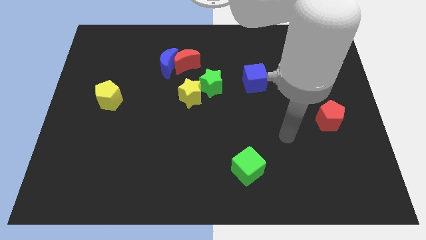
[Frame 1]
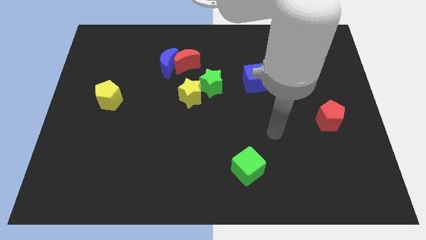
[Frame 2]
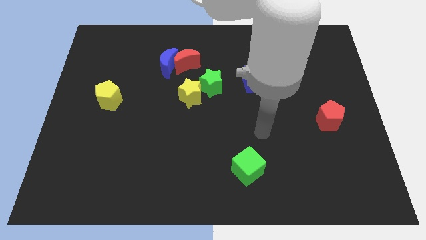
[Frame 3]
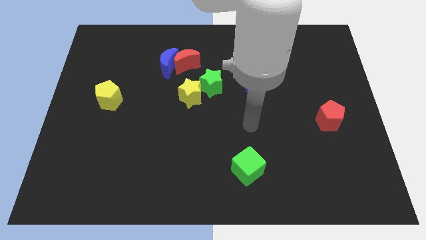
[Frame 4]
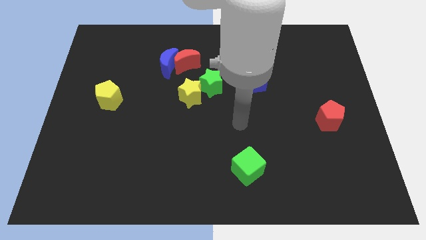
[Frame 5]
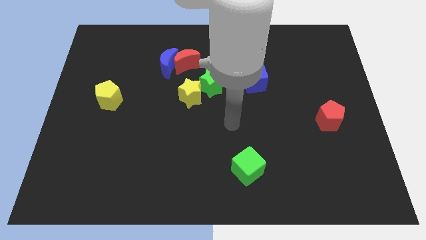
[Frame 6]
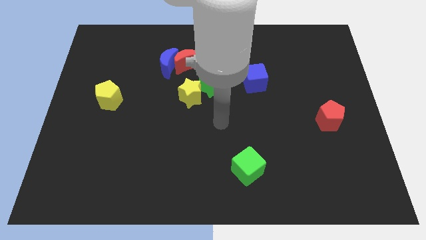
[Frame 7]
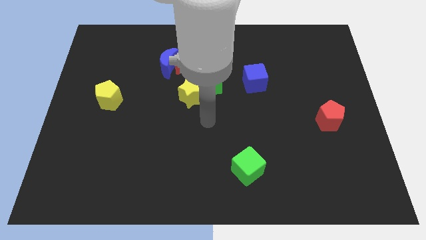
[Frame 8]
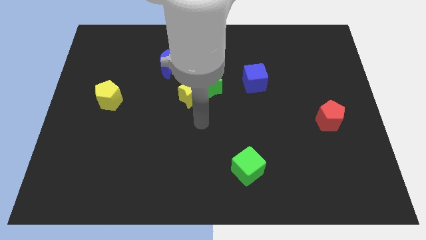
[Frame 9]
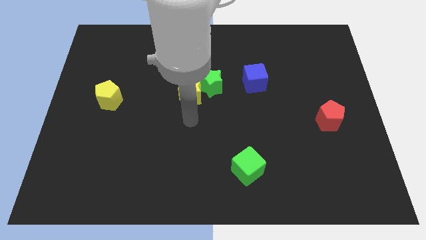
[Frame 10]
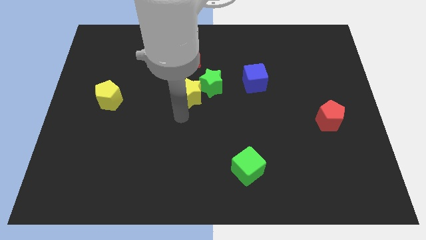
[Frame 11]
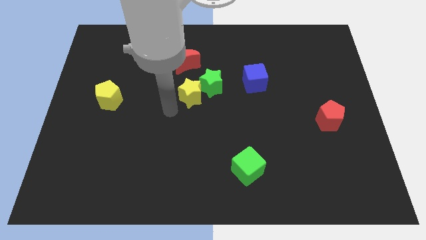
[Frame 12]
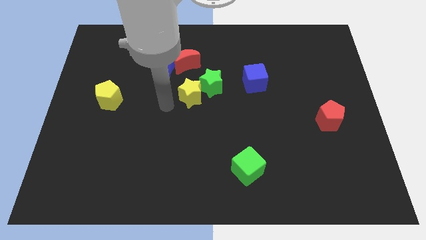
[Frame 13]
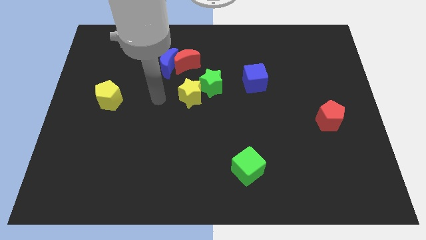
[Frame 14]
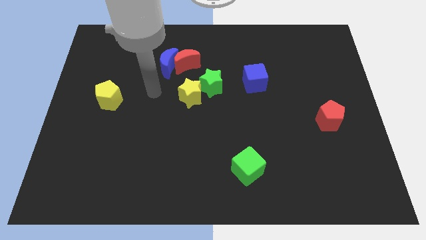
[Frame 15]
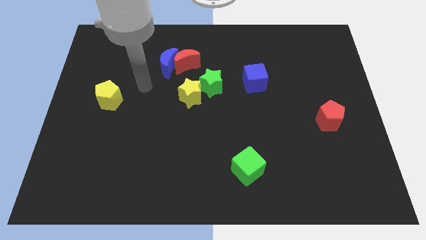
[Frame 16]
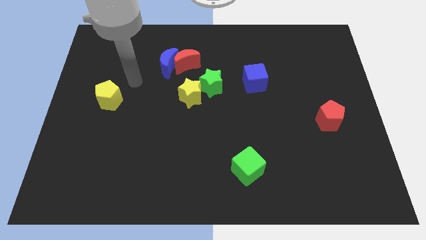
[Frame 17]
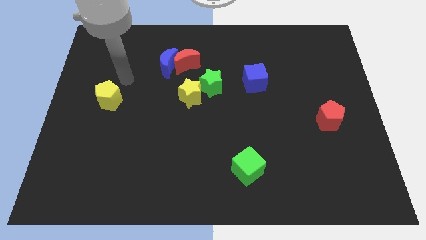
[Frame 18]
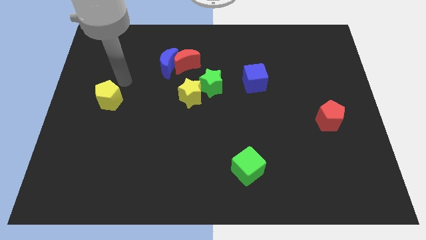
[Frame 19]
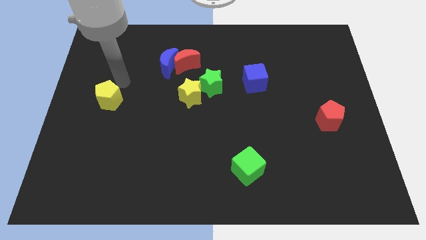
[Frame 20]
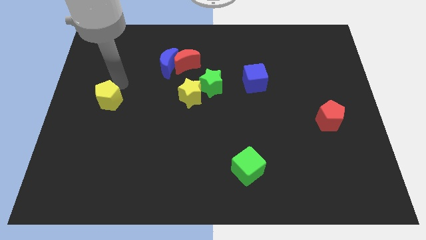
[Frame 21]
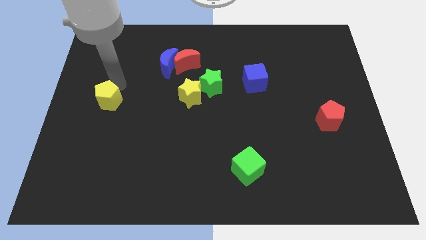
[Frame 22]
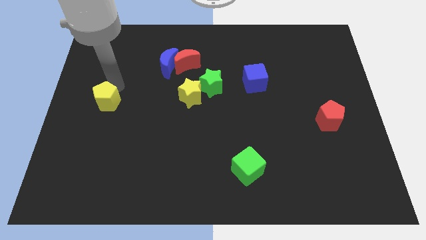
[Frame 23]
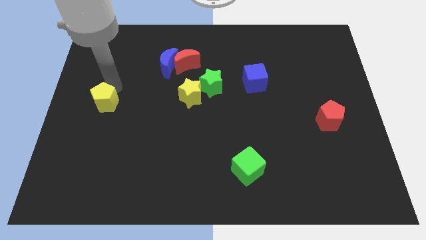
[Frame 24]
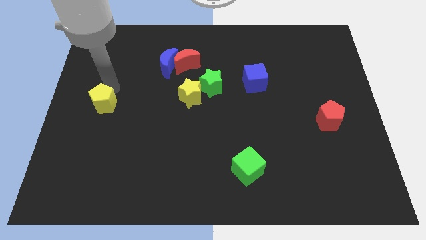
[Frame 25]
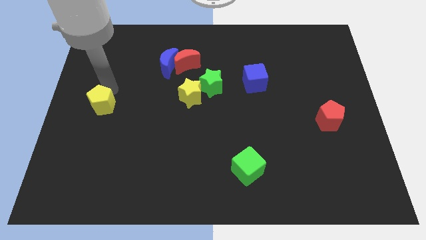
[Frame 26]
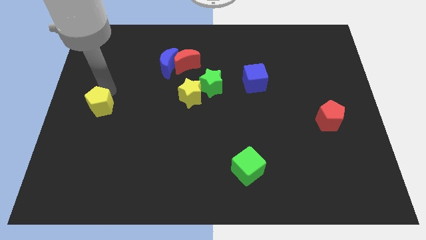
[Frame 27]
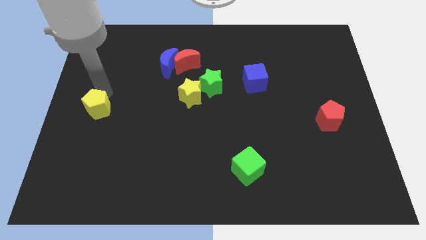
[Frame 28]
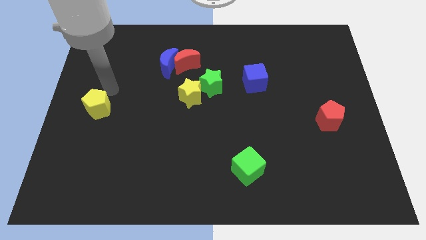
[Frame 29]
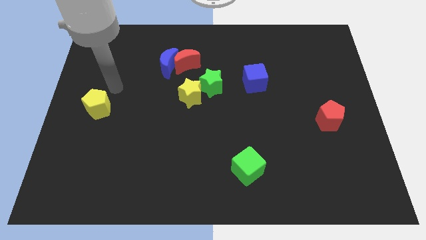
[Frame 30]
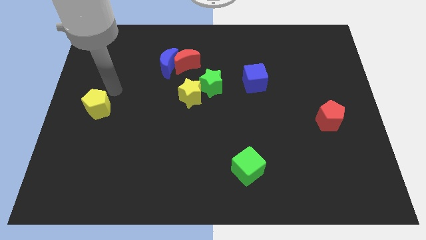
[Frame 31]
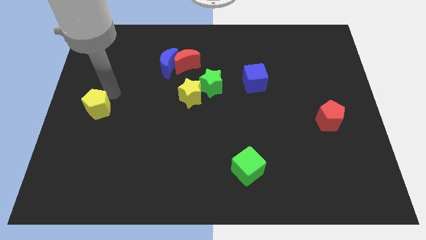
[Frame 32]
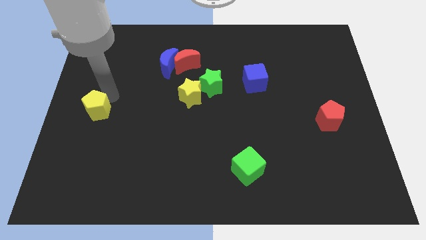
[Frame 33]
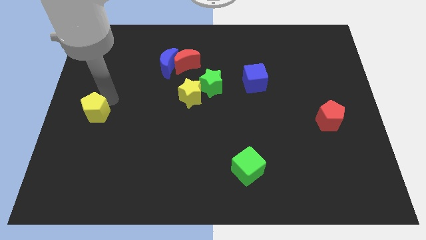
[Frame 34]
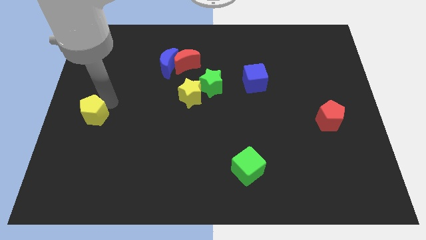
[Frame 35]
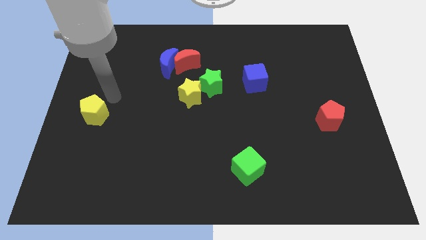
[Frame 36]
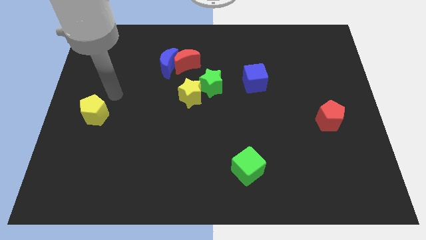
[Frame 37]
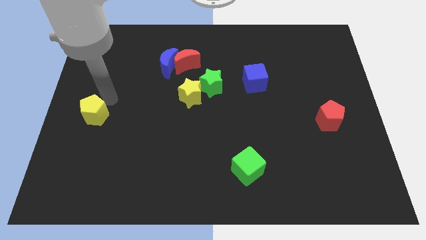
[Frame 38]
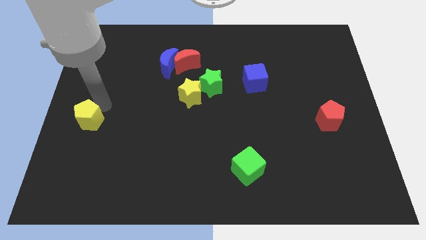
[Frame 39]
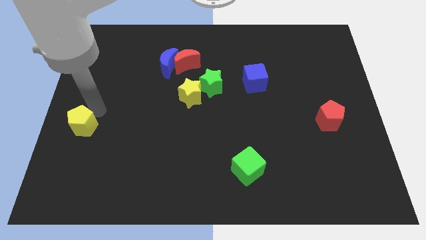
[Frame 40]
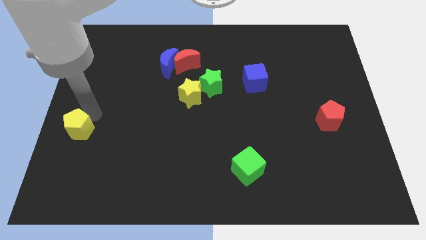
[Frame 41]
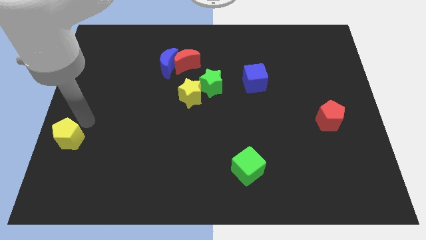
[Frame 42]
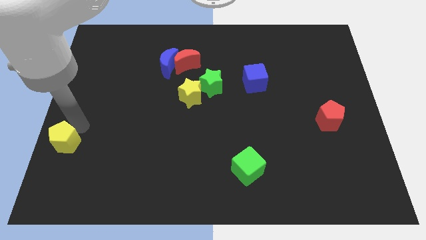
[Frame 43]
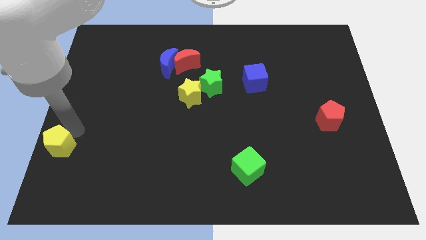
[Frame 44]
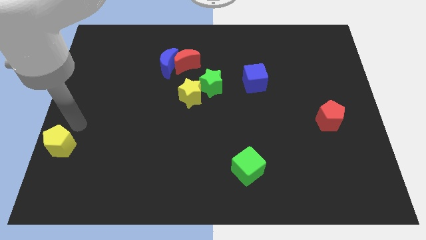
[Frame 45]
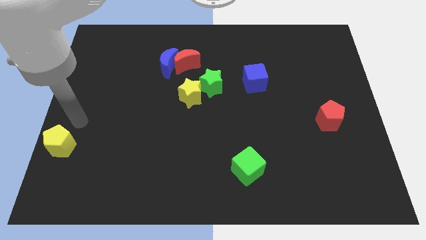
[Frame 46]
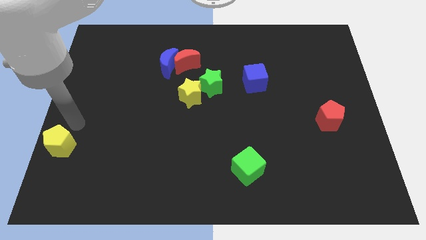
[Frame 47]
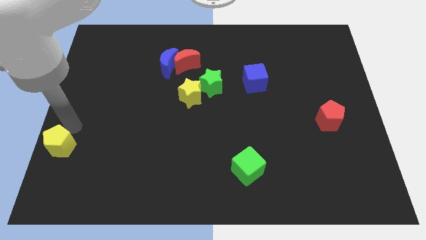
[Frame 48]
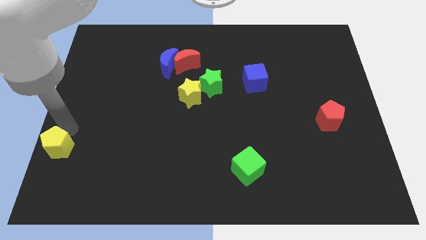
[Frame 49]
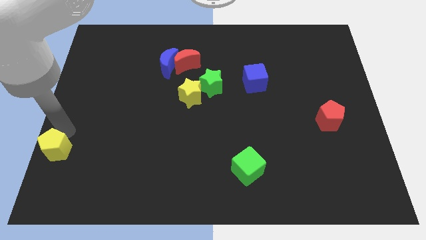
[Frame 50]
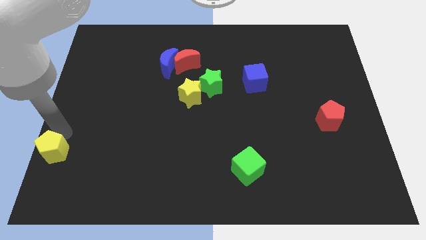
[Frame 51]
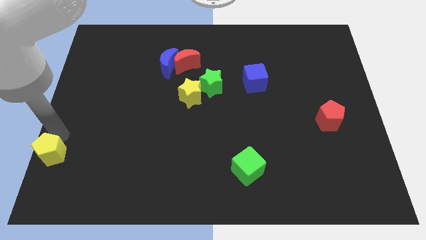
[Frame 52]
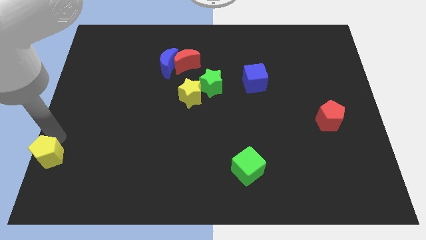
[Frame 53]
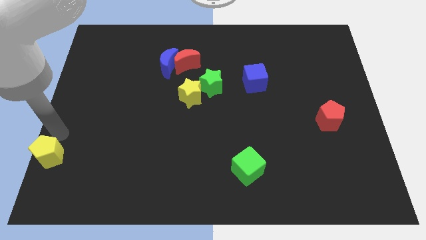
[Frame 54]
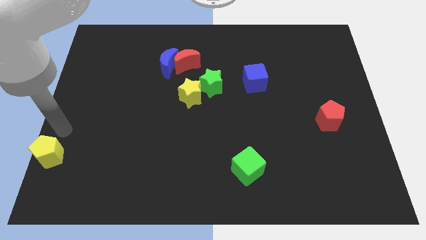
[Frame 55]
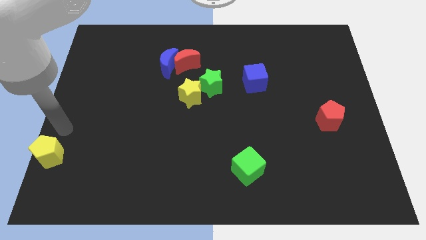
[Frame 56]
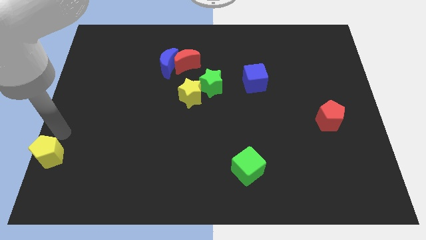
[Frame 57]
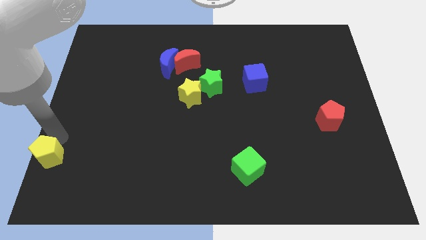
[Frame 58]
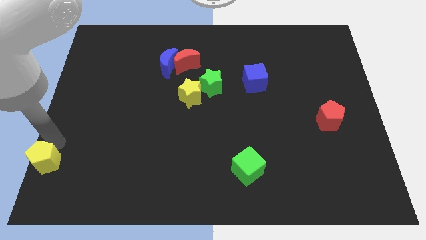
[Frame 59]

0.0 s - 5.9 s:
put the yellow pentagon to the bottom left
